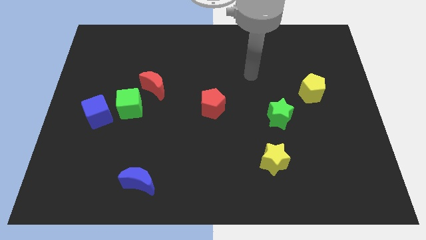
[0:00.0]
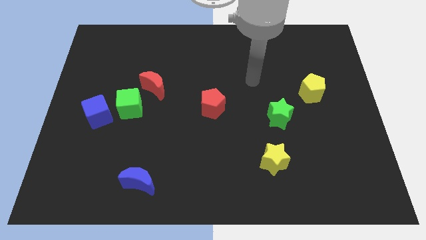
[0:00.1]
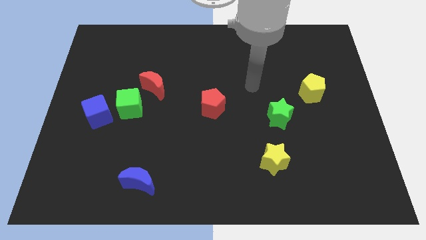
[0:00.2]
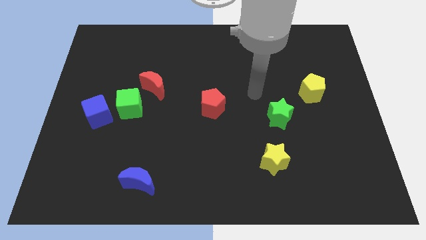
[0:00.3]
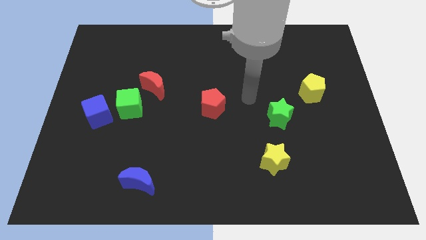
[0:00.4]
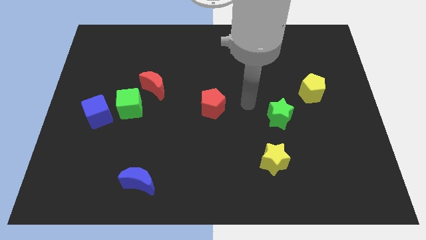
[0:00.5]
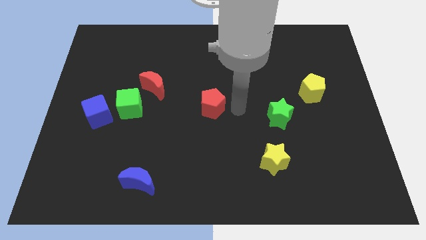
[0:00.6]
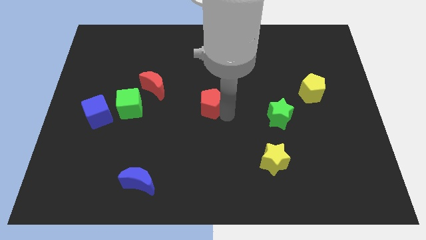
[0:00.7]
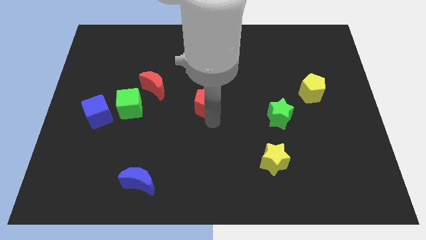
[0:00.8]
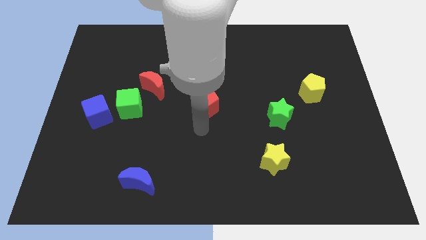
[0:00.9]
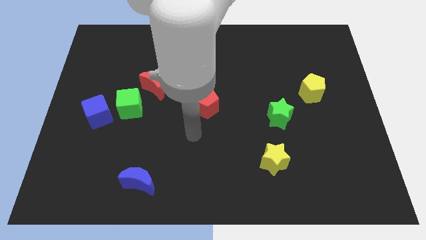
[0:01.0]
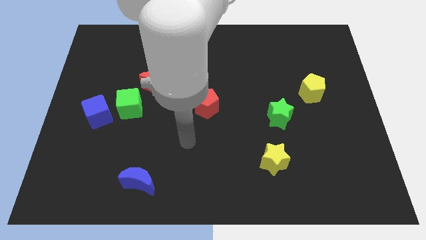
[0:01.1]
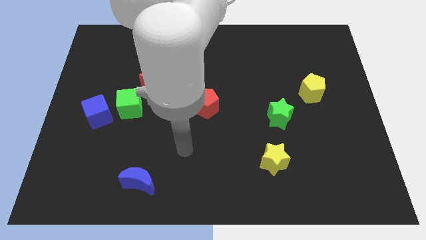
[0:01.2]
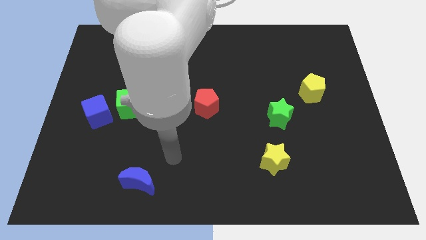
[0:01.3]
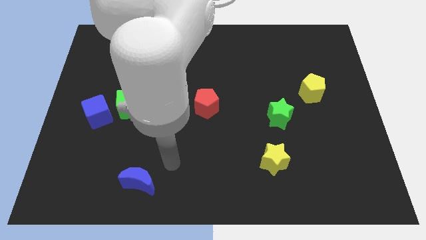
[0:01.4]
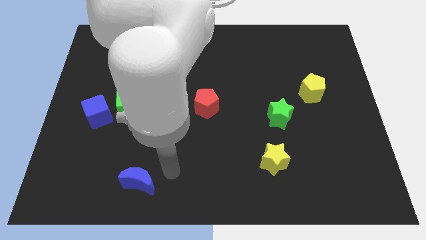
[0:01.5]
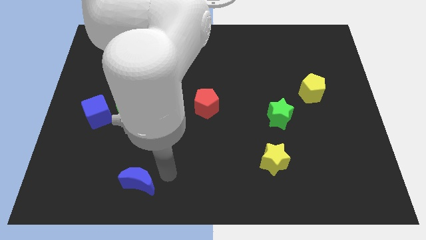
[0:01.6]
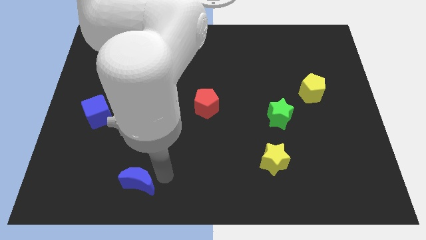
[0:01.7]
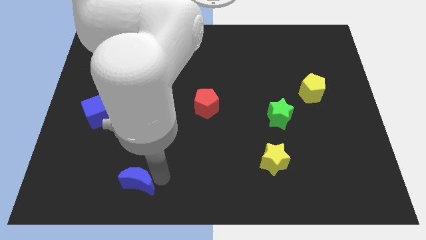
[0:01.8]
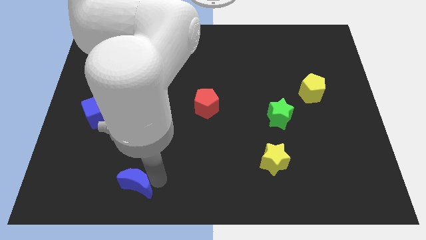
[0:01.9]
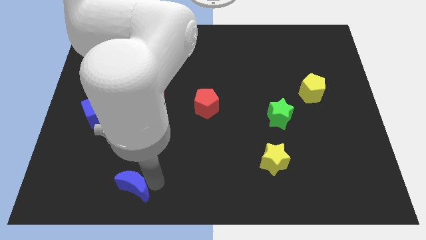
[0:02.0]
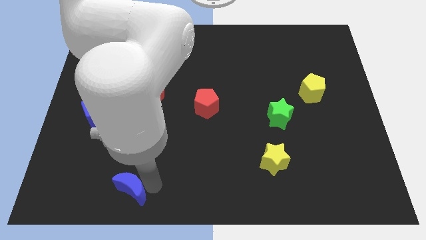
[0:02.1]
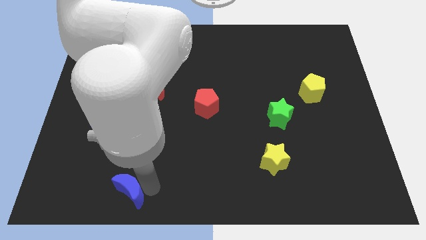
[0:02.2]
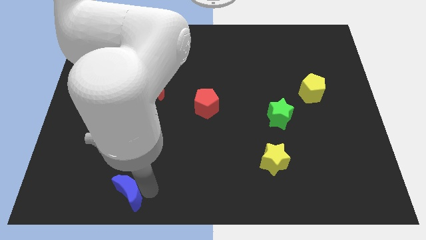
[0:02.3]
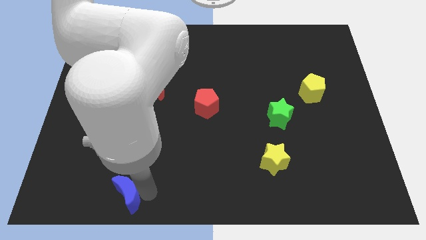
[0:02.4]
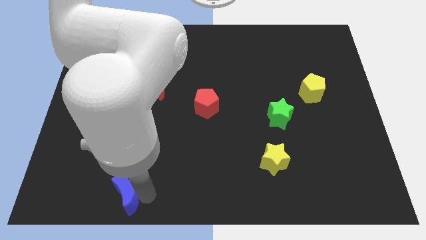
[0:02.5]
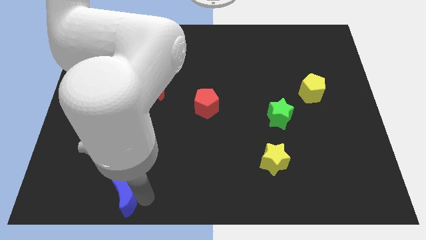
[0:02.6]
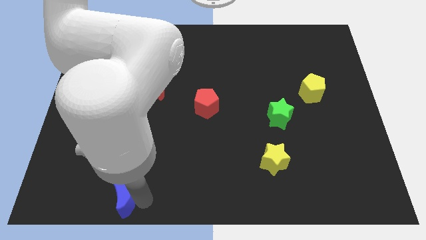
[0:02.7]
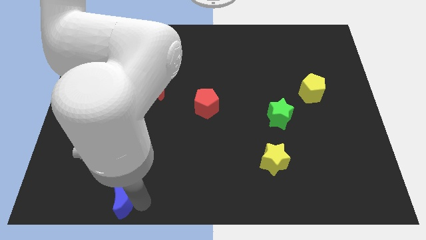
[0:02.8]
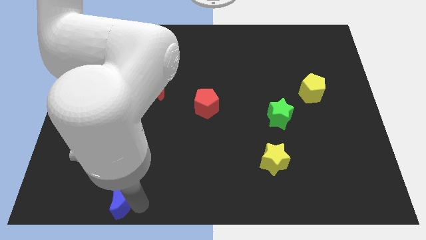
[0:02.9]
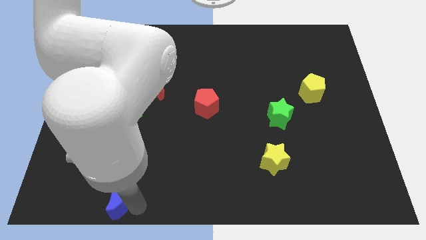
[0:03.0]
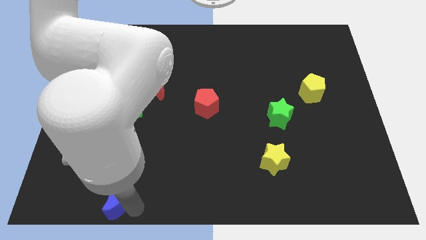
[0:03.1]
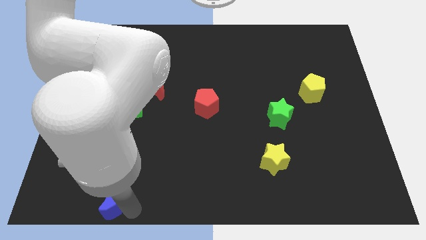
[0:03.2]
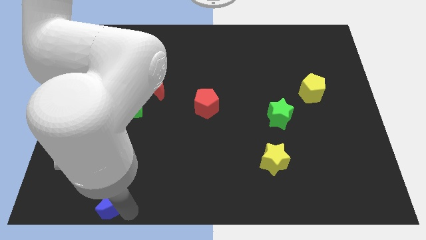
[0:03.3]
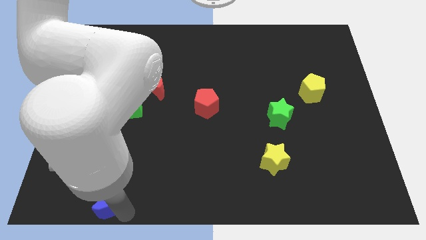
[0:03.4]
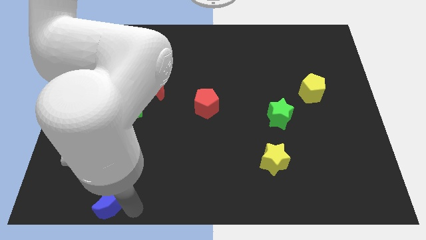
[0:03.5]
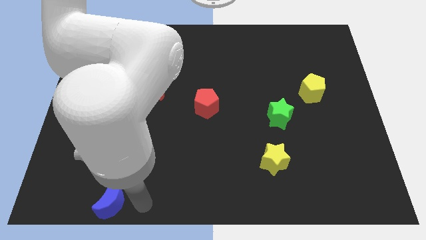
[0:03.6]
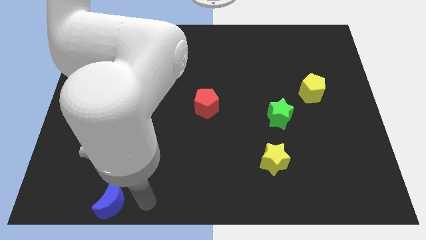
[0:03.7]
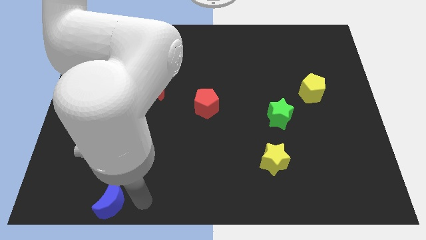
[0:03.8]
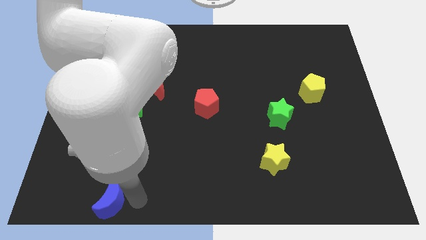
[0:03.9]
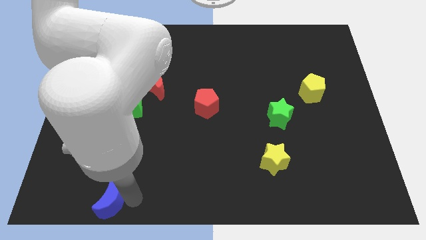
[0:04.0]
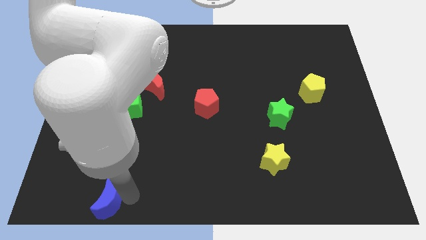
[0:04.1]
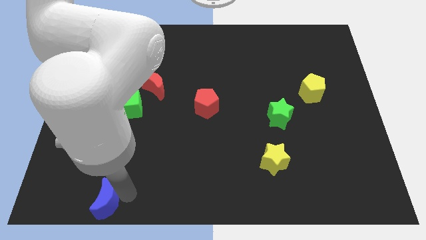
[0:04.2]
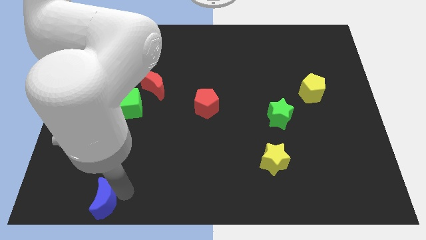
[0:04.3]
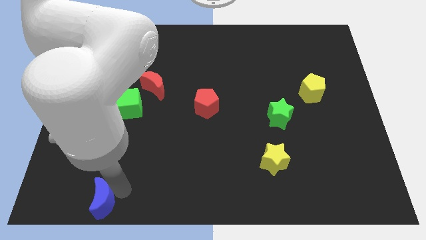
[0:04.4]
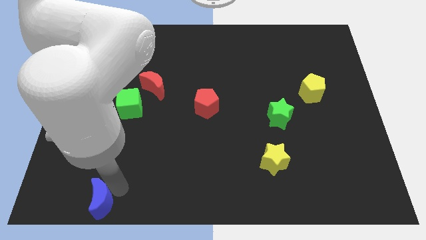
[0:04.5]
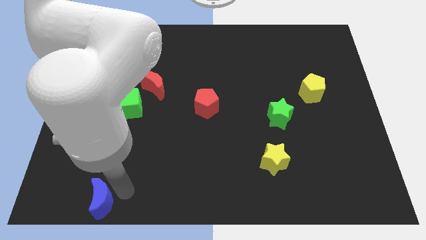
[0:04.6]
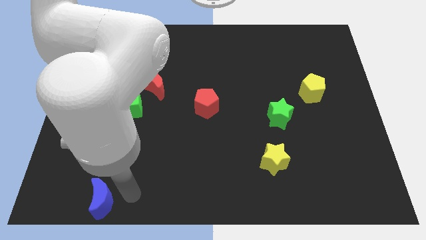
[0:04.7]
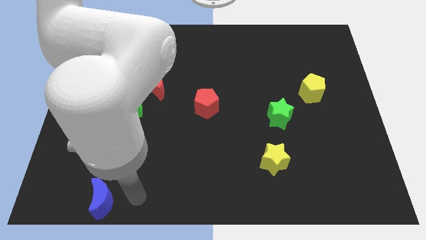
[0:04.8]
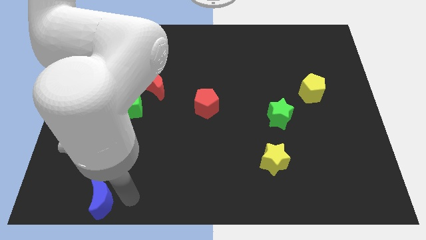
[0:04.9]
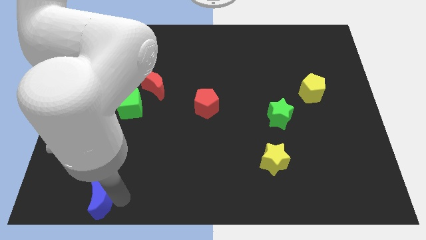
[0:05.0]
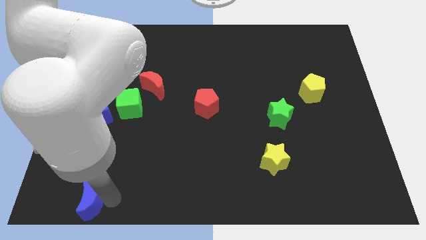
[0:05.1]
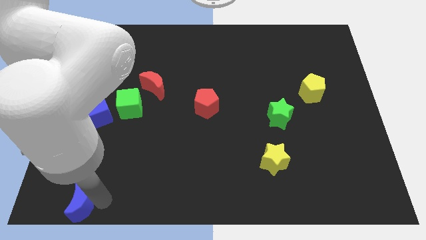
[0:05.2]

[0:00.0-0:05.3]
slide the blue moon to the bottom left of the board
